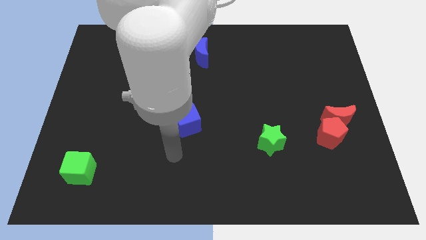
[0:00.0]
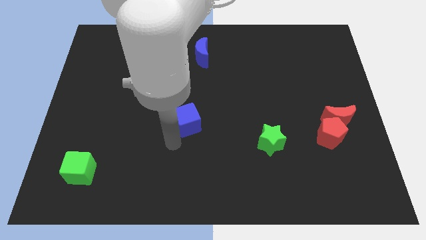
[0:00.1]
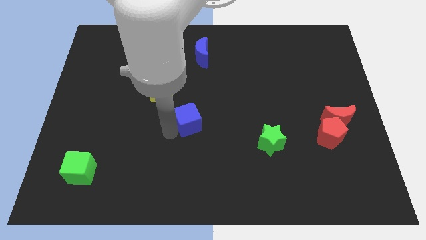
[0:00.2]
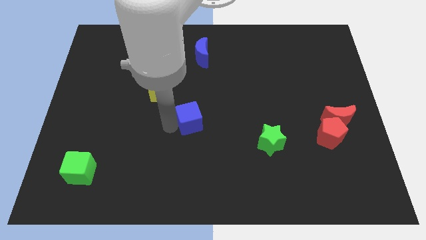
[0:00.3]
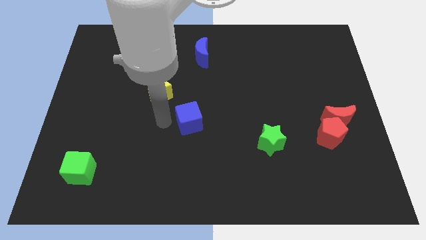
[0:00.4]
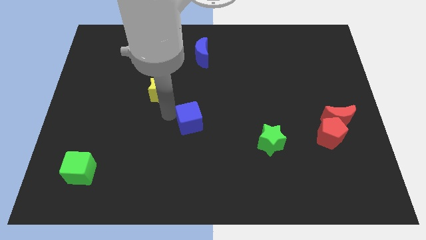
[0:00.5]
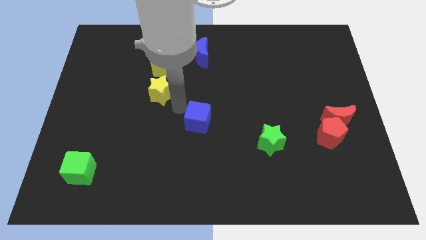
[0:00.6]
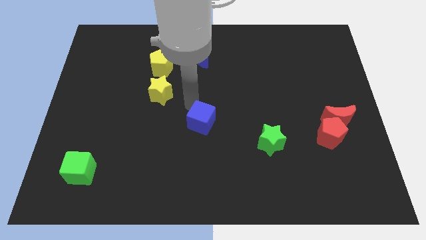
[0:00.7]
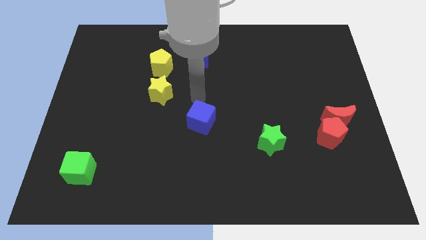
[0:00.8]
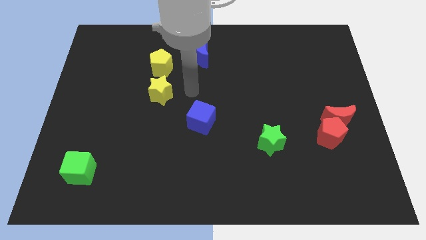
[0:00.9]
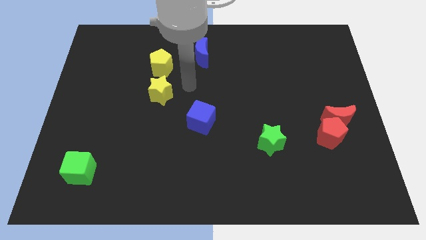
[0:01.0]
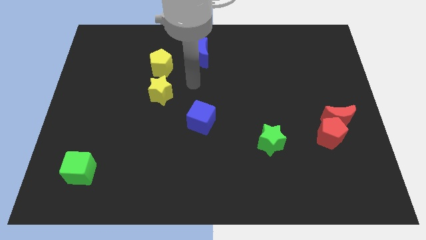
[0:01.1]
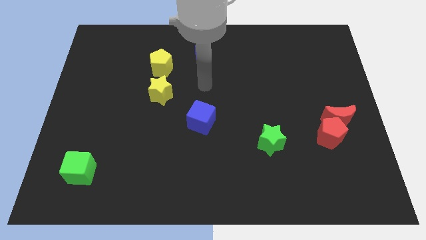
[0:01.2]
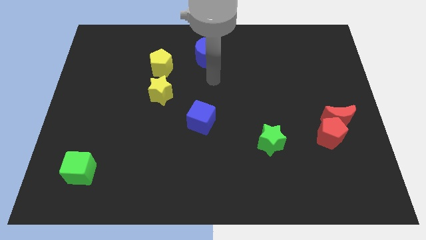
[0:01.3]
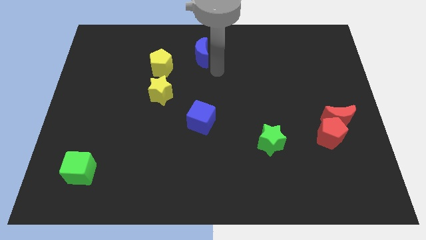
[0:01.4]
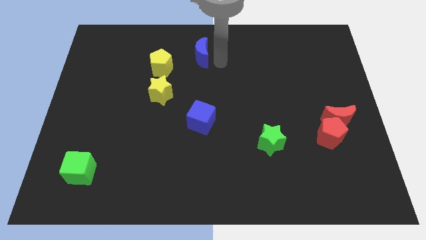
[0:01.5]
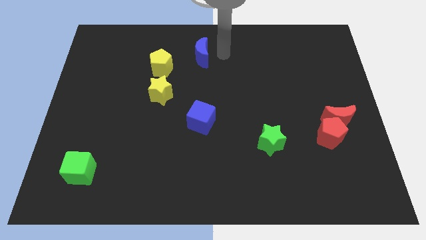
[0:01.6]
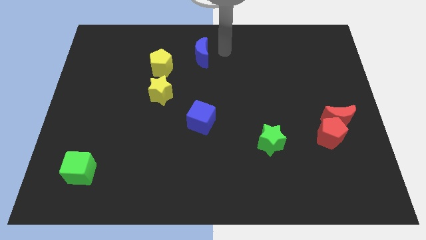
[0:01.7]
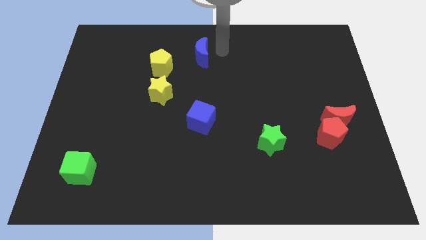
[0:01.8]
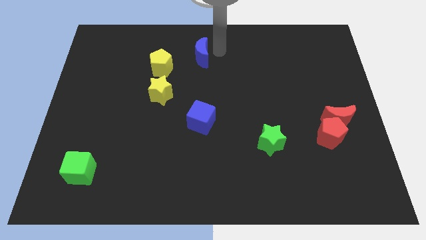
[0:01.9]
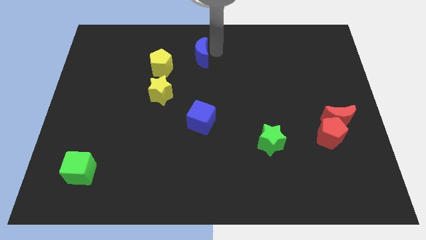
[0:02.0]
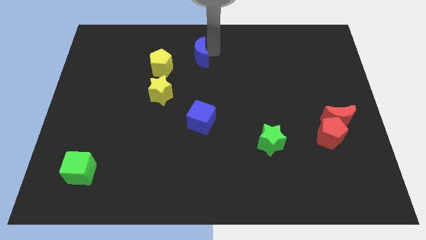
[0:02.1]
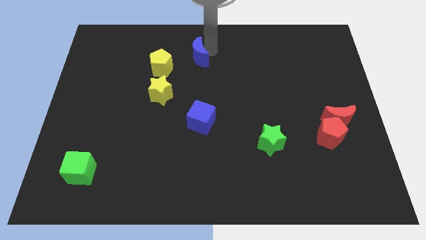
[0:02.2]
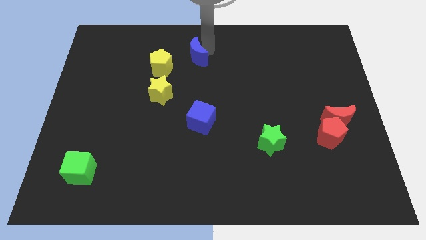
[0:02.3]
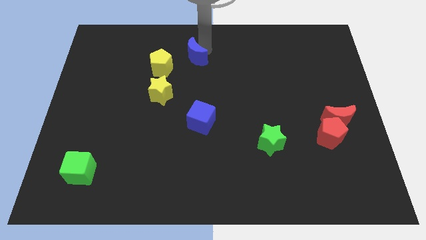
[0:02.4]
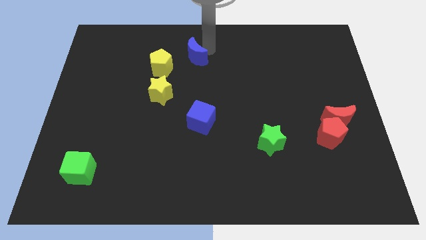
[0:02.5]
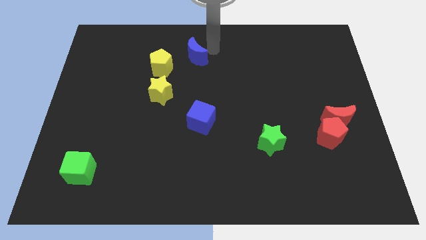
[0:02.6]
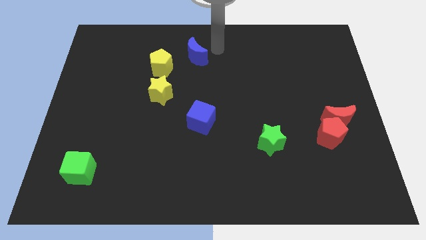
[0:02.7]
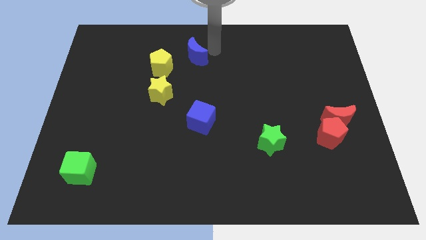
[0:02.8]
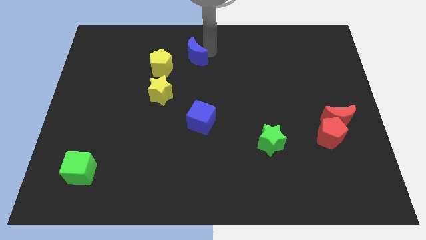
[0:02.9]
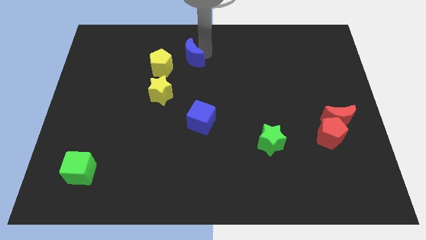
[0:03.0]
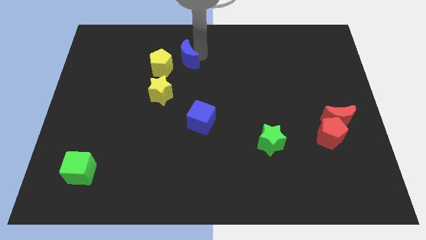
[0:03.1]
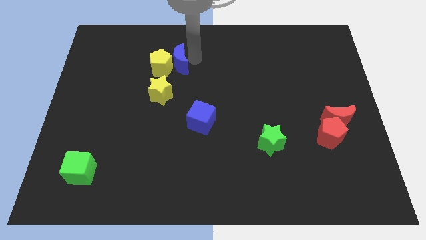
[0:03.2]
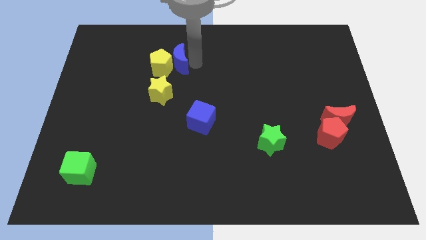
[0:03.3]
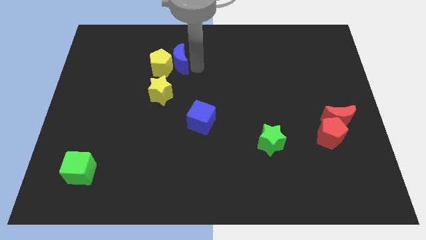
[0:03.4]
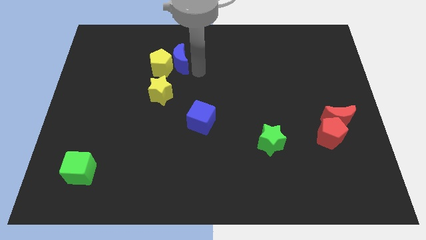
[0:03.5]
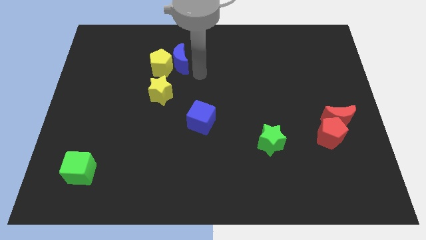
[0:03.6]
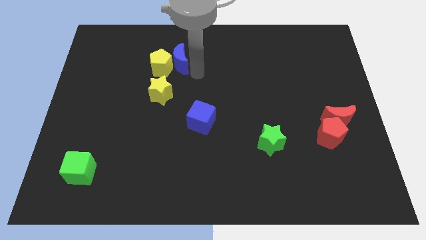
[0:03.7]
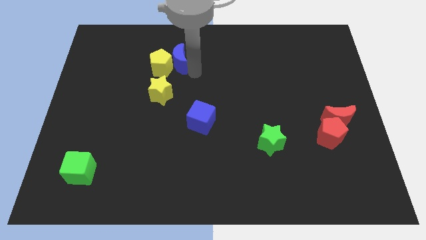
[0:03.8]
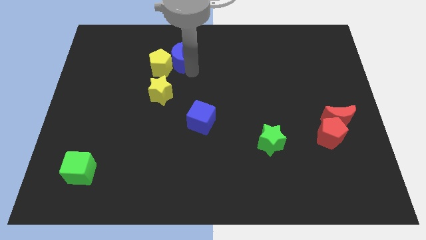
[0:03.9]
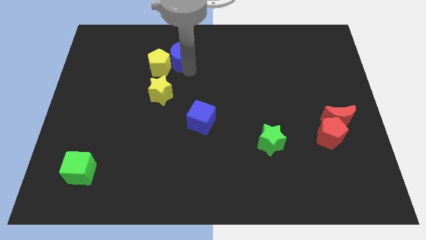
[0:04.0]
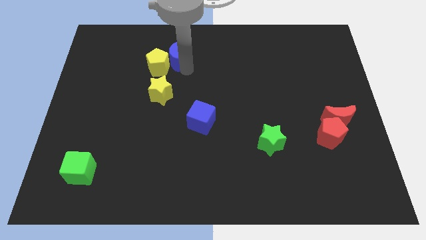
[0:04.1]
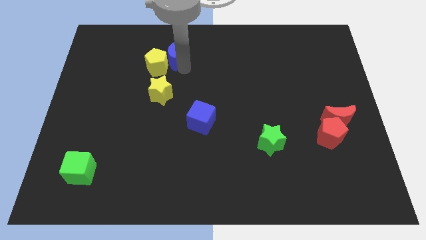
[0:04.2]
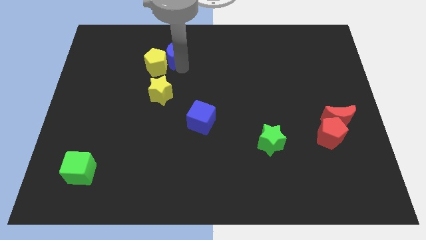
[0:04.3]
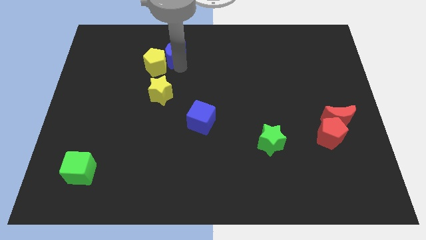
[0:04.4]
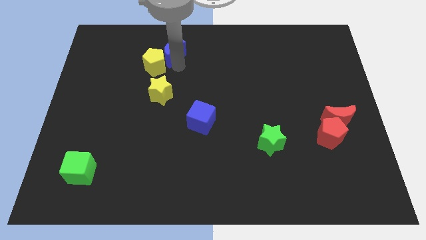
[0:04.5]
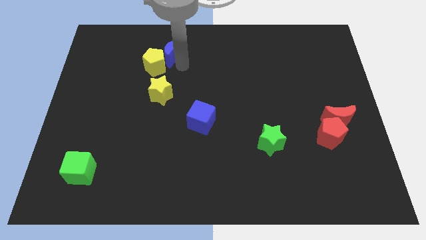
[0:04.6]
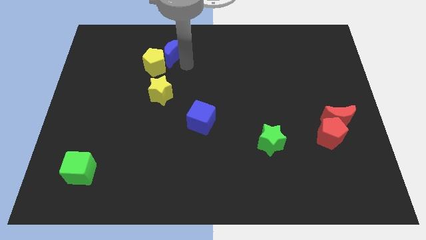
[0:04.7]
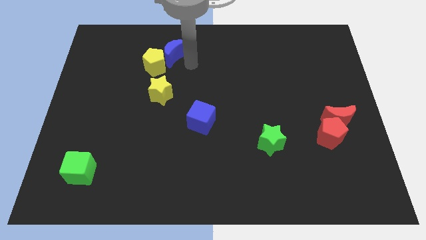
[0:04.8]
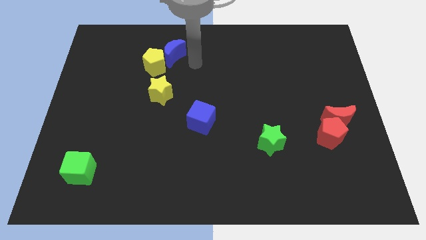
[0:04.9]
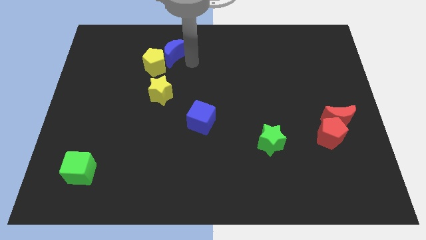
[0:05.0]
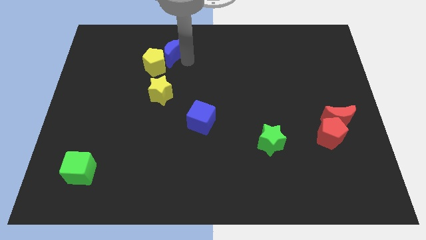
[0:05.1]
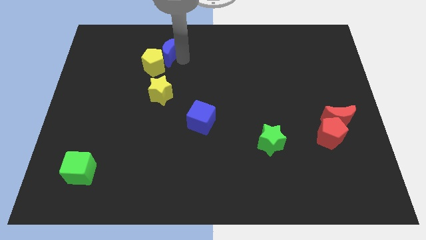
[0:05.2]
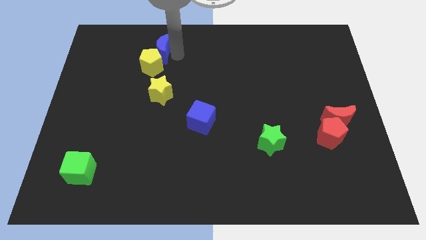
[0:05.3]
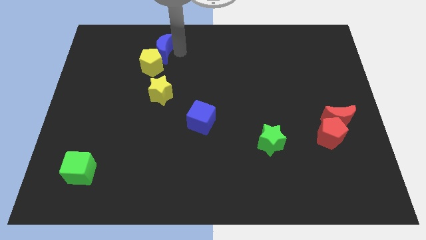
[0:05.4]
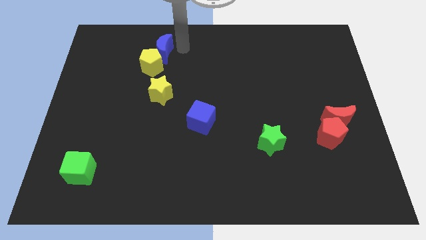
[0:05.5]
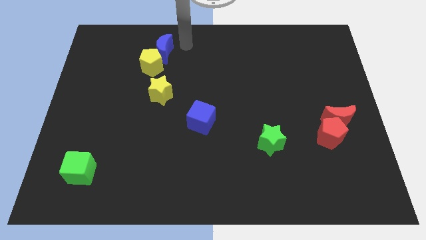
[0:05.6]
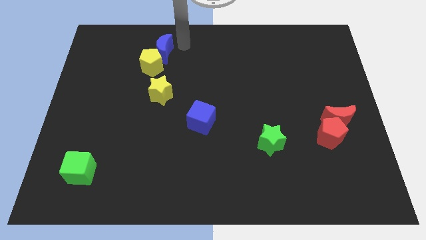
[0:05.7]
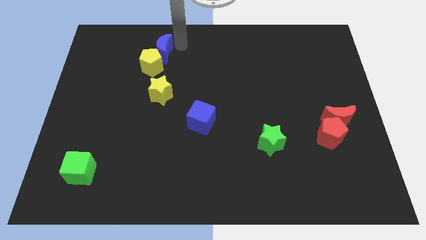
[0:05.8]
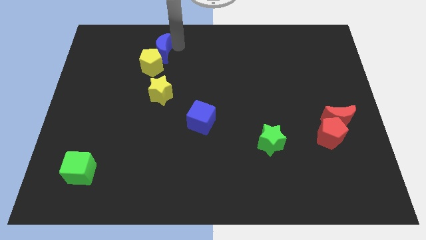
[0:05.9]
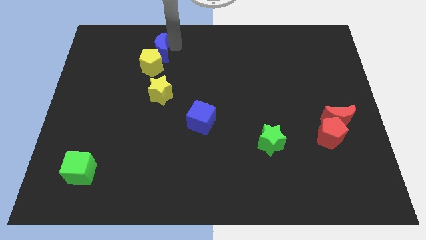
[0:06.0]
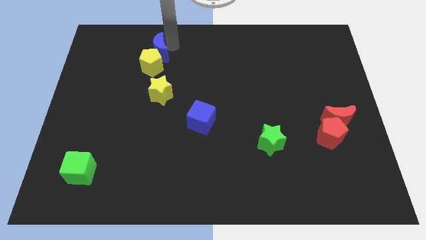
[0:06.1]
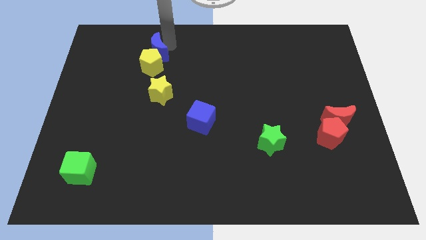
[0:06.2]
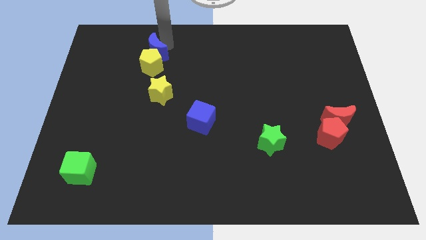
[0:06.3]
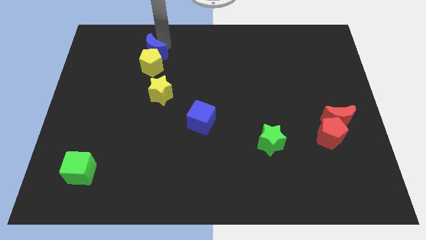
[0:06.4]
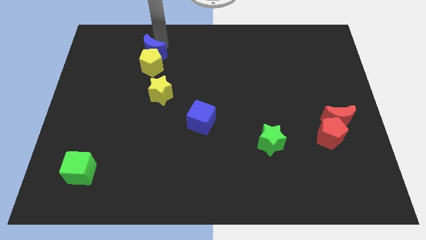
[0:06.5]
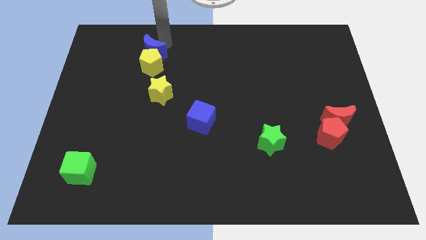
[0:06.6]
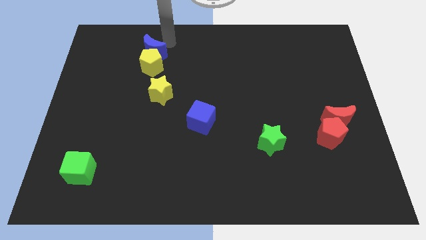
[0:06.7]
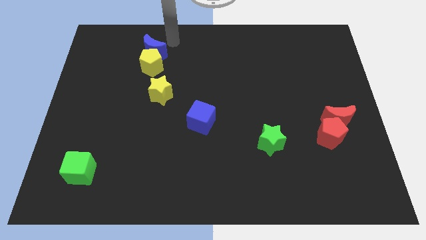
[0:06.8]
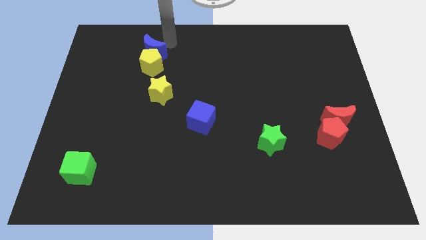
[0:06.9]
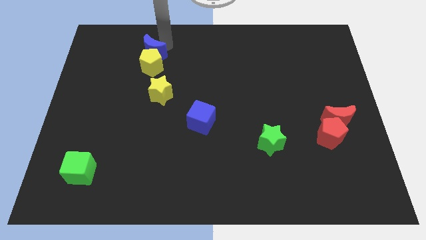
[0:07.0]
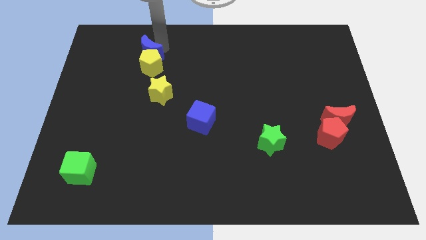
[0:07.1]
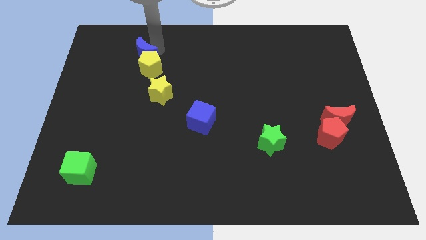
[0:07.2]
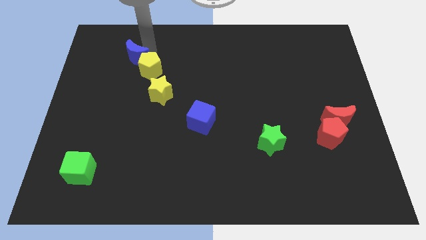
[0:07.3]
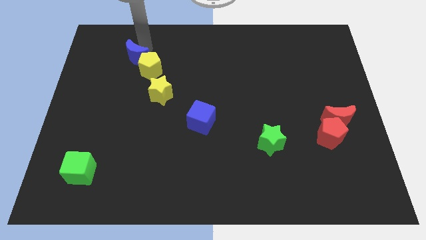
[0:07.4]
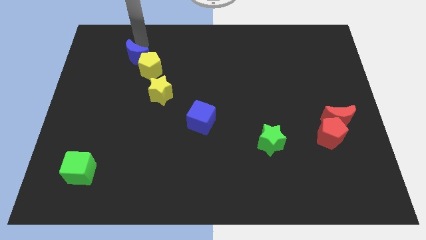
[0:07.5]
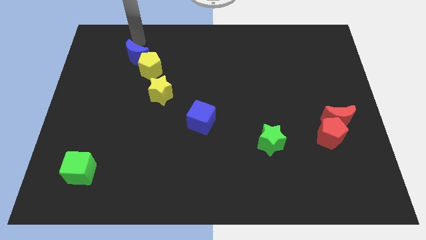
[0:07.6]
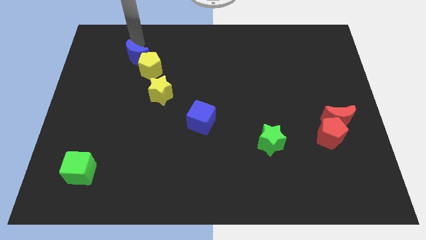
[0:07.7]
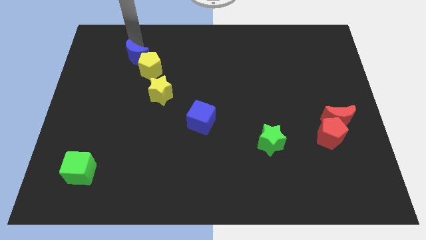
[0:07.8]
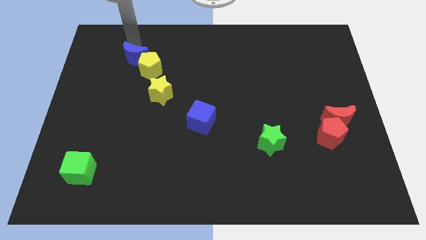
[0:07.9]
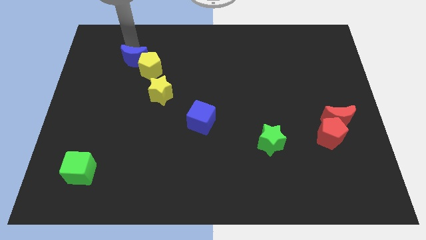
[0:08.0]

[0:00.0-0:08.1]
slide the blue moon downwards and left somewhat
